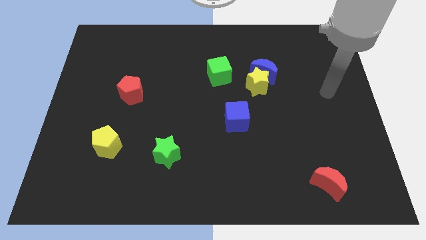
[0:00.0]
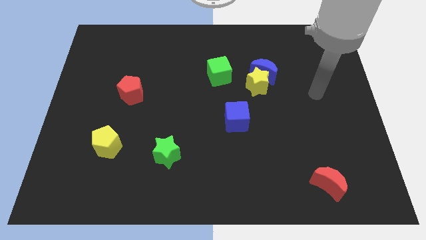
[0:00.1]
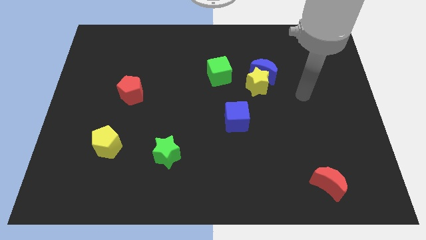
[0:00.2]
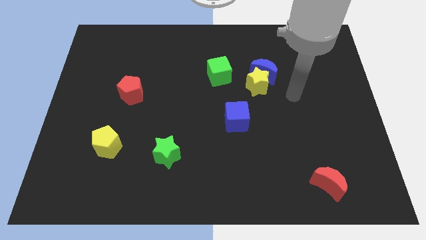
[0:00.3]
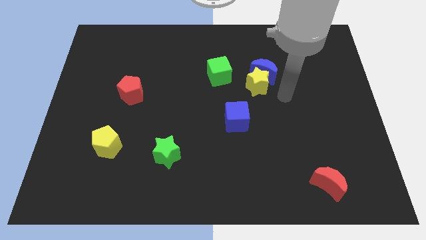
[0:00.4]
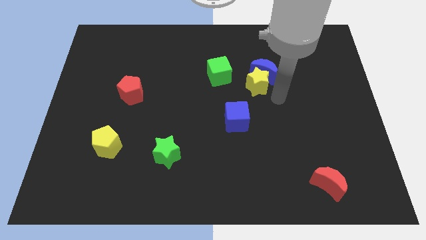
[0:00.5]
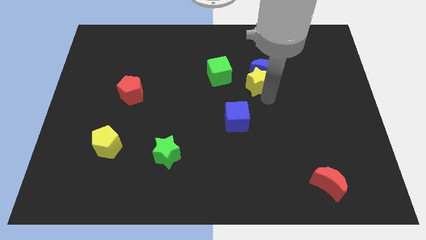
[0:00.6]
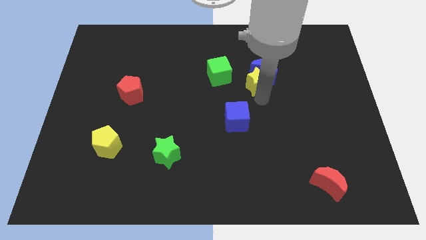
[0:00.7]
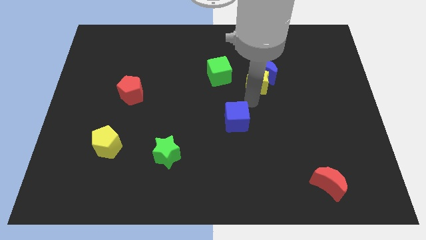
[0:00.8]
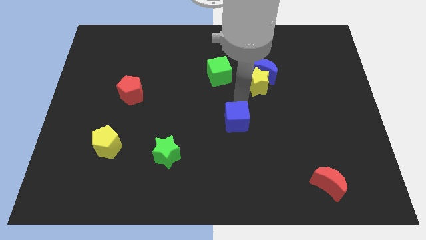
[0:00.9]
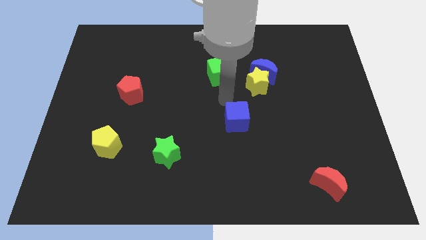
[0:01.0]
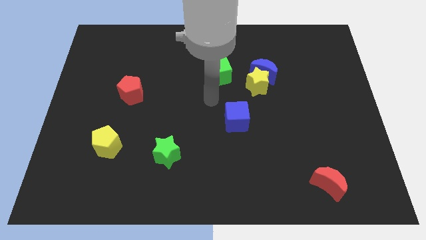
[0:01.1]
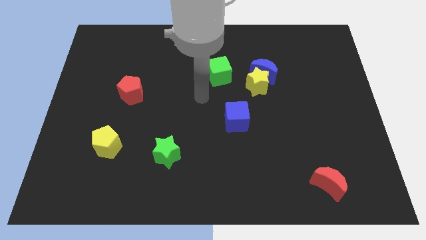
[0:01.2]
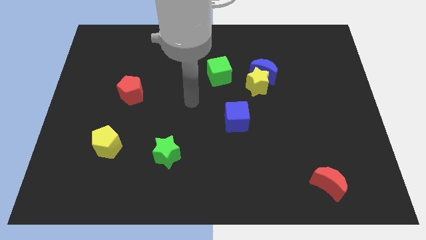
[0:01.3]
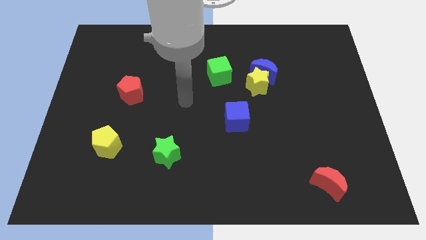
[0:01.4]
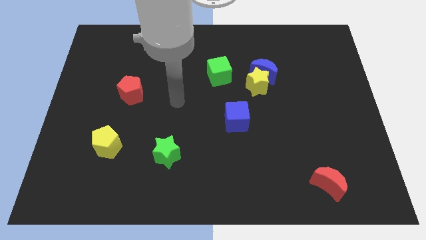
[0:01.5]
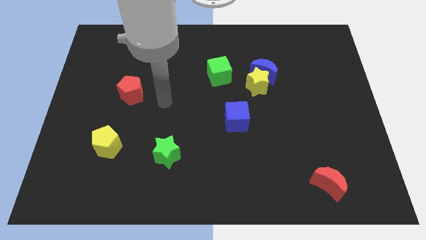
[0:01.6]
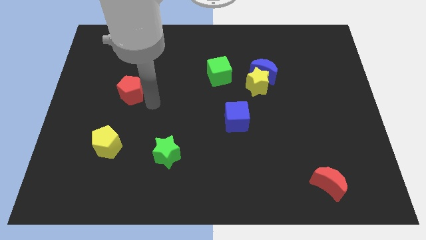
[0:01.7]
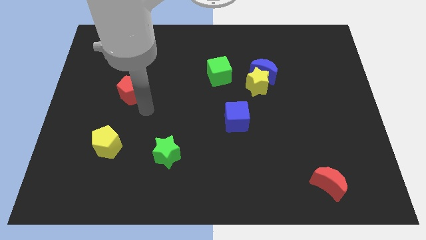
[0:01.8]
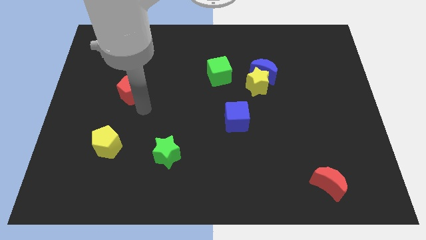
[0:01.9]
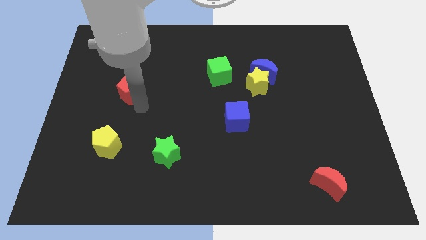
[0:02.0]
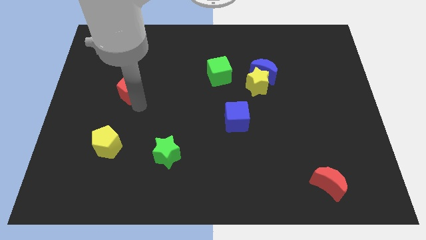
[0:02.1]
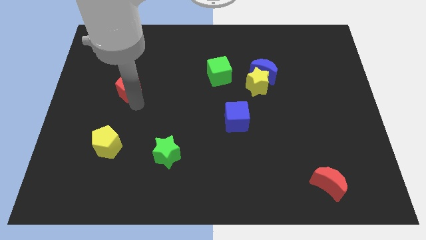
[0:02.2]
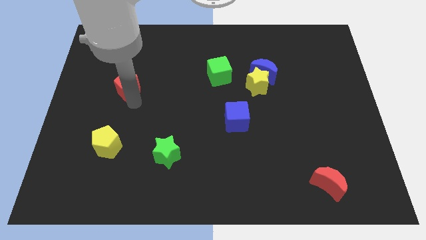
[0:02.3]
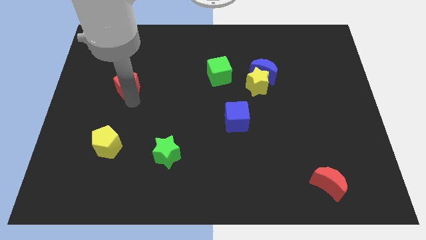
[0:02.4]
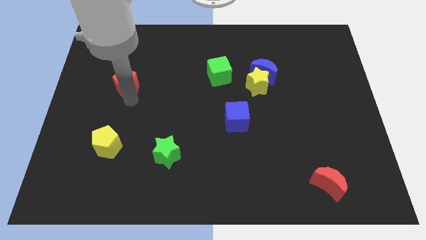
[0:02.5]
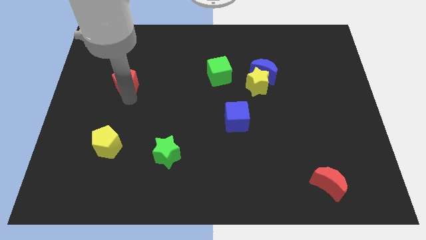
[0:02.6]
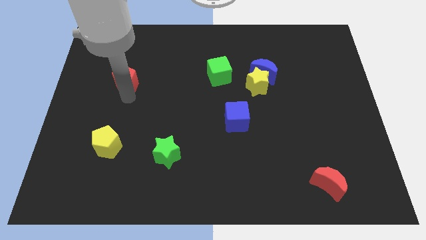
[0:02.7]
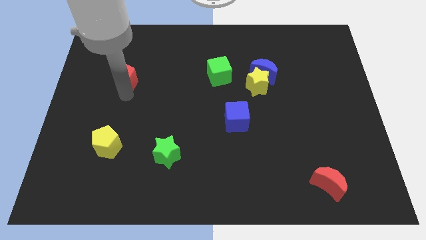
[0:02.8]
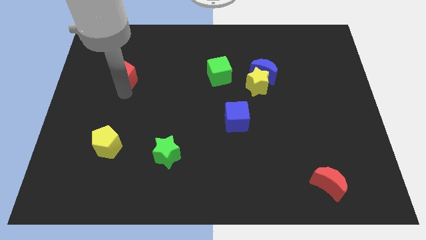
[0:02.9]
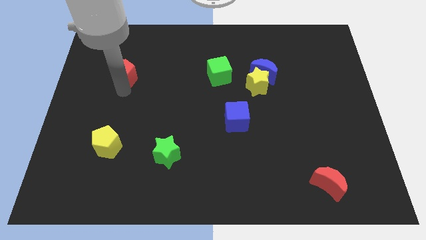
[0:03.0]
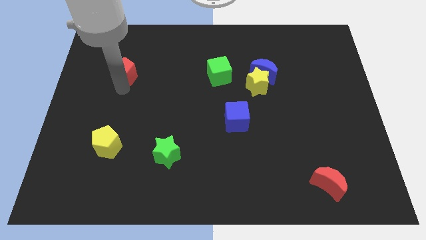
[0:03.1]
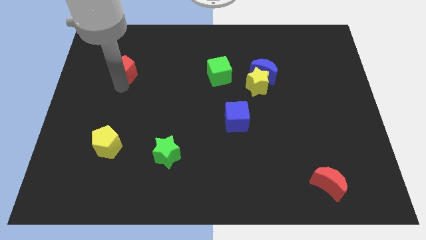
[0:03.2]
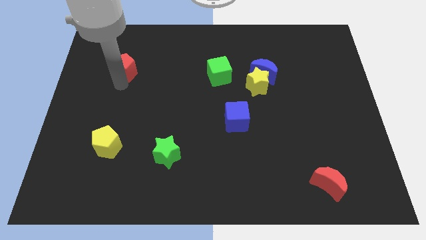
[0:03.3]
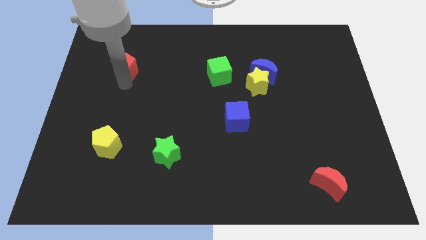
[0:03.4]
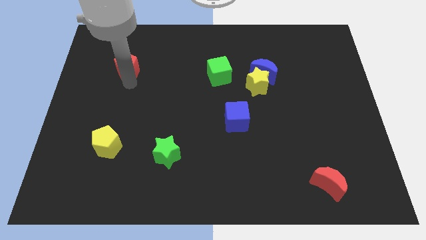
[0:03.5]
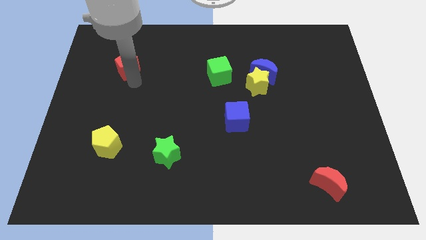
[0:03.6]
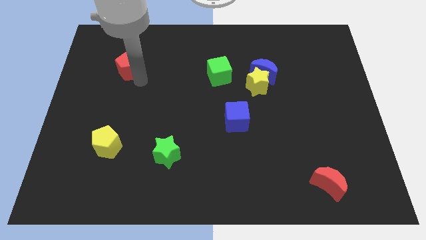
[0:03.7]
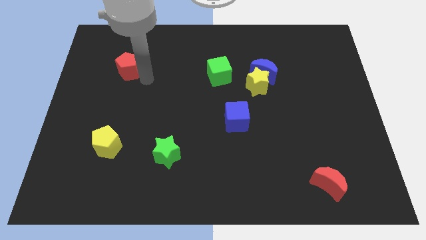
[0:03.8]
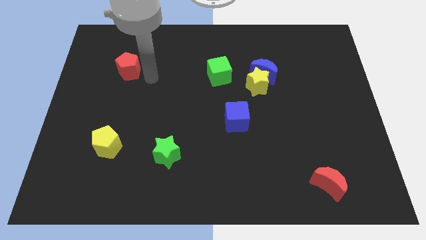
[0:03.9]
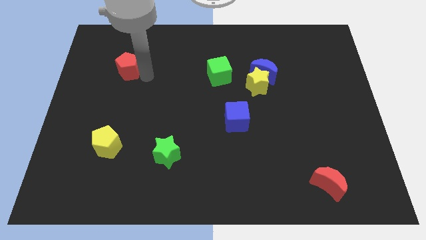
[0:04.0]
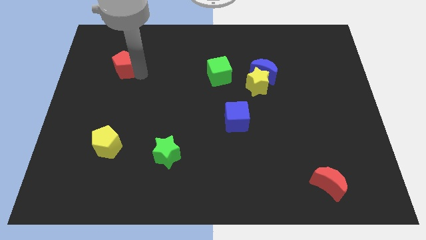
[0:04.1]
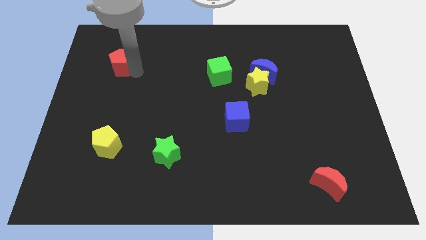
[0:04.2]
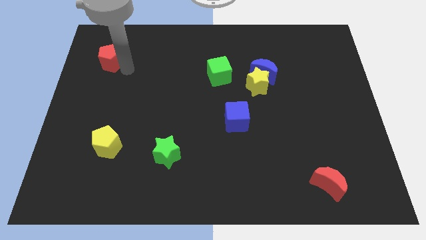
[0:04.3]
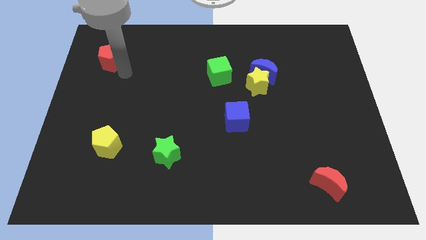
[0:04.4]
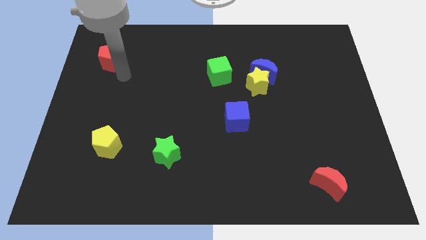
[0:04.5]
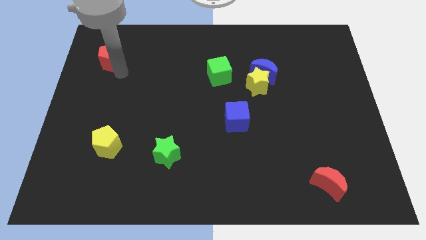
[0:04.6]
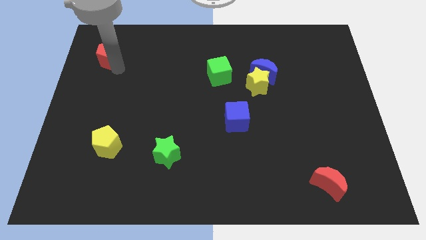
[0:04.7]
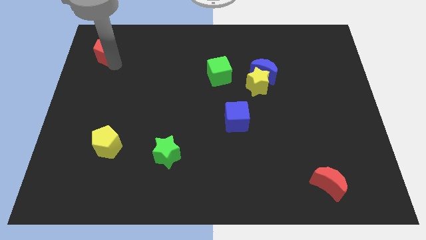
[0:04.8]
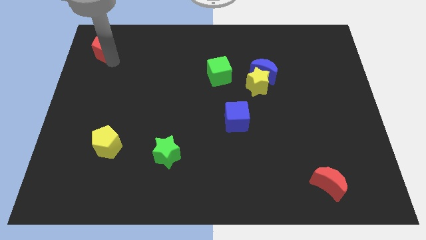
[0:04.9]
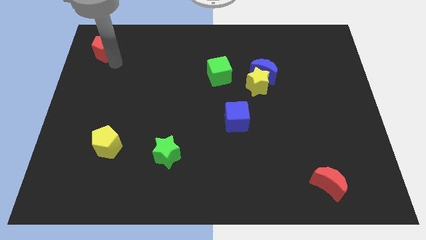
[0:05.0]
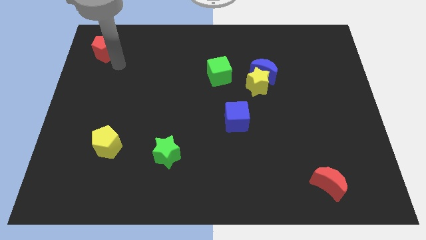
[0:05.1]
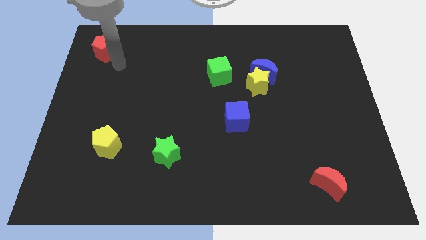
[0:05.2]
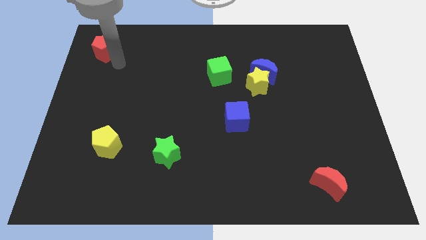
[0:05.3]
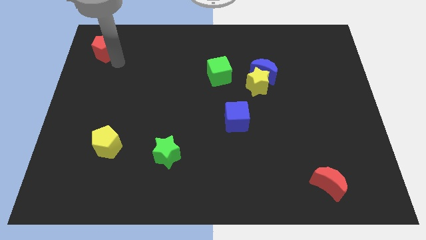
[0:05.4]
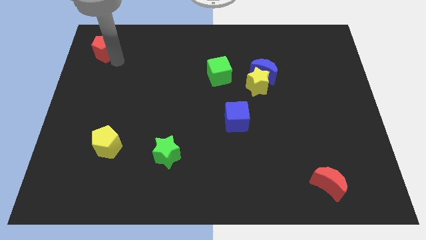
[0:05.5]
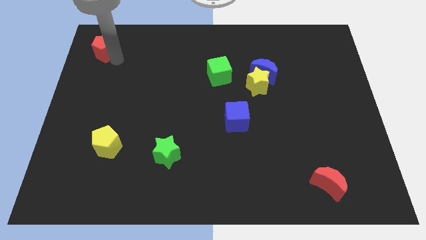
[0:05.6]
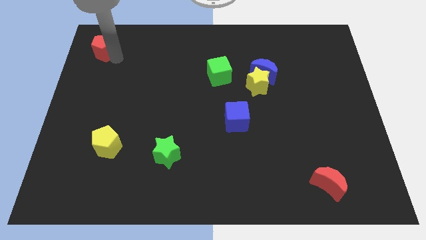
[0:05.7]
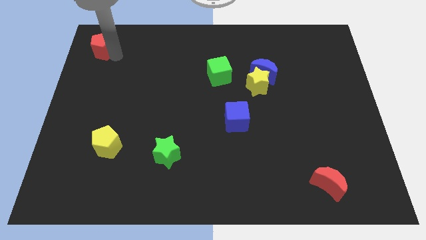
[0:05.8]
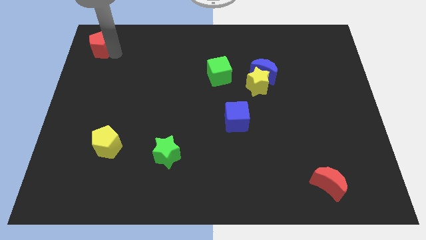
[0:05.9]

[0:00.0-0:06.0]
put the red pentagon to the upper left corner

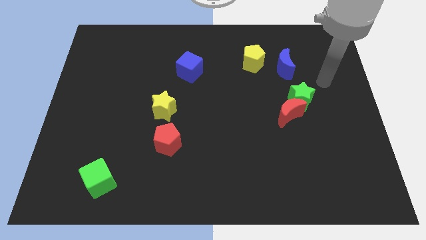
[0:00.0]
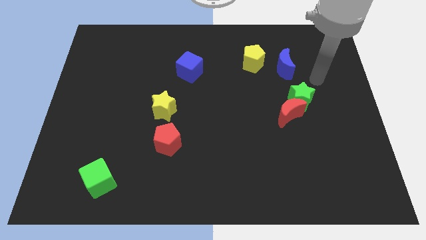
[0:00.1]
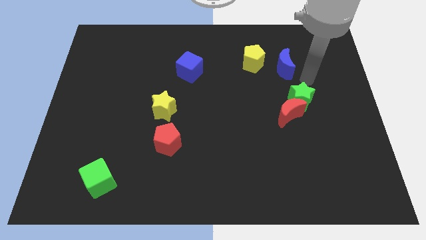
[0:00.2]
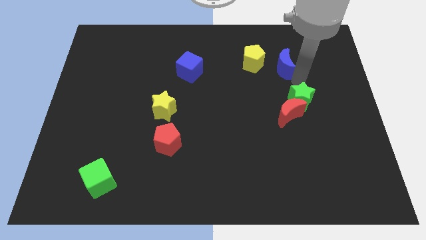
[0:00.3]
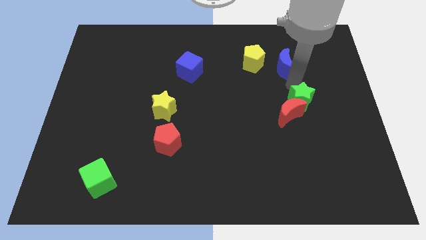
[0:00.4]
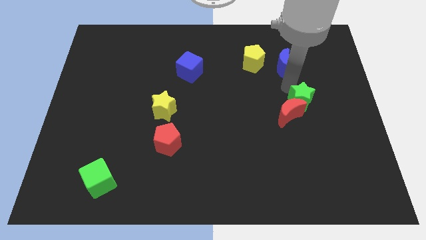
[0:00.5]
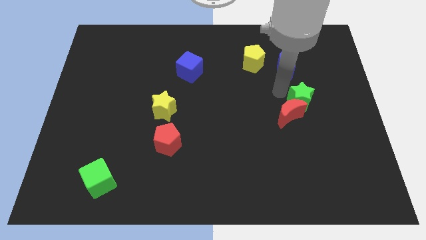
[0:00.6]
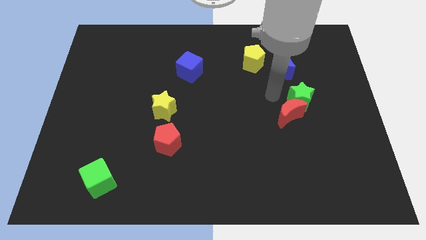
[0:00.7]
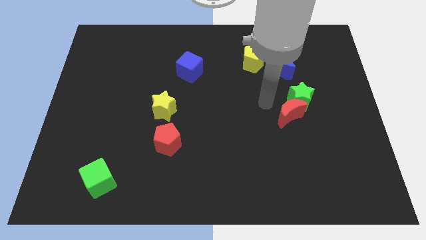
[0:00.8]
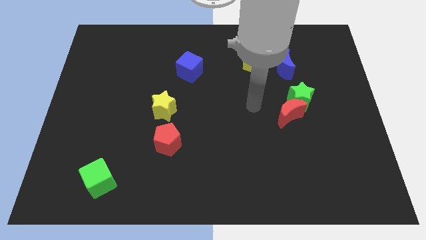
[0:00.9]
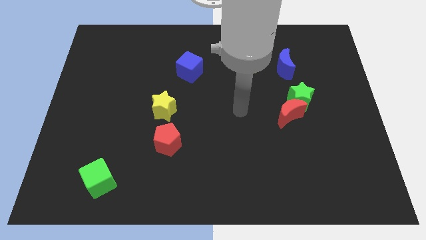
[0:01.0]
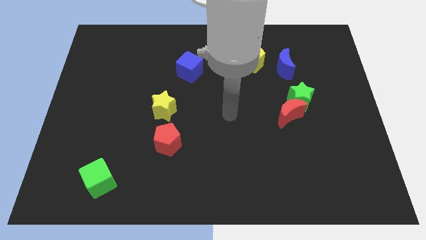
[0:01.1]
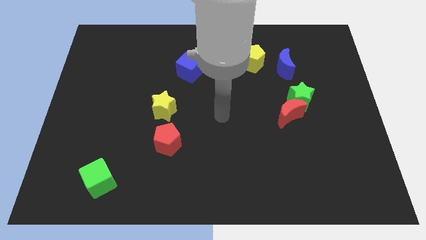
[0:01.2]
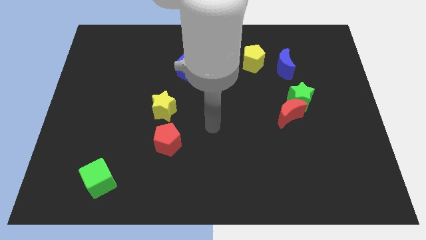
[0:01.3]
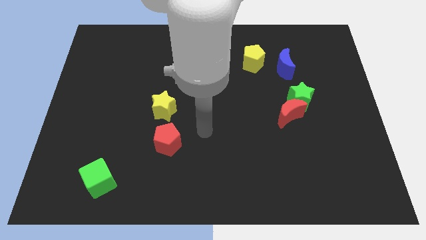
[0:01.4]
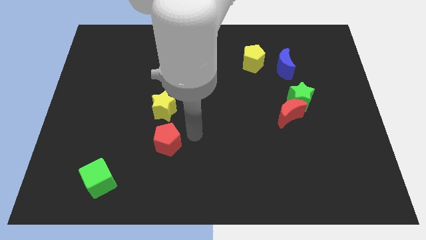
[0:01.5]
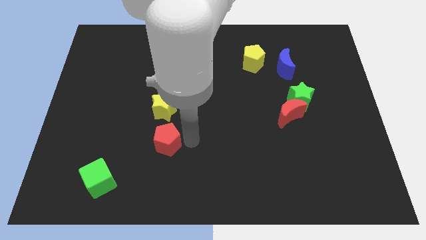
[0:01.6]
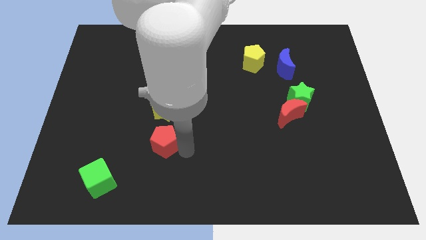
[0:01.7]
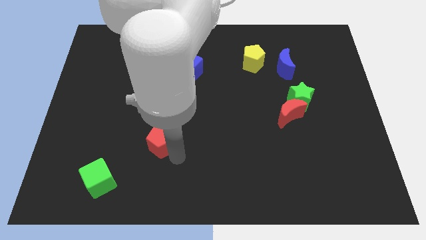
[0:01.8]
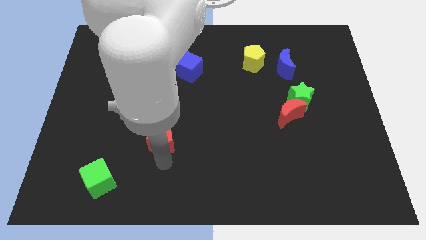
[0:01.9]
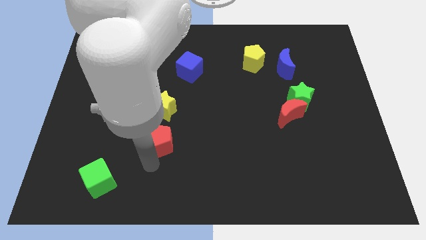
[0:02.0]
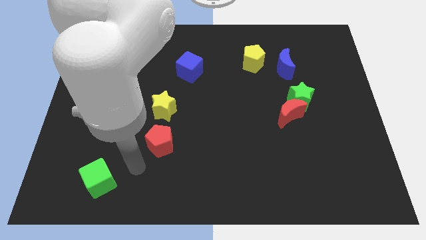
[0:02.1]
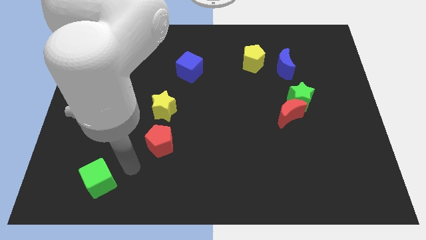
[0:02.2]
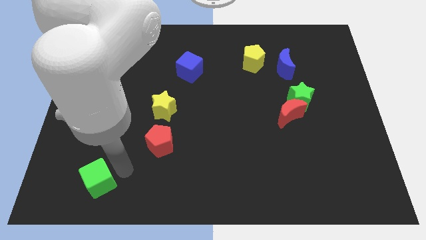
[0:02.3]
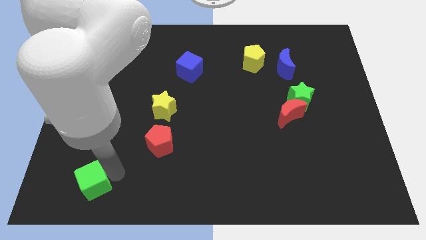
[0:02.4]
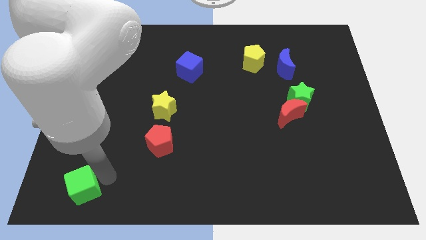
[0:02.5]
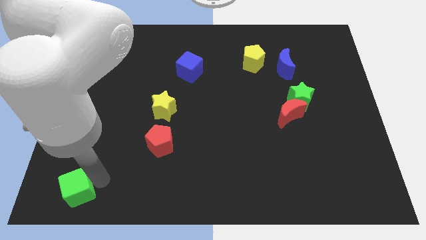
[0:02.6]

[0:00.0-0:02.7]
put the green cube to the bottom left of the board
